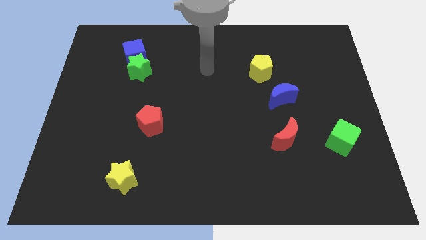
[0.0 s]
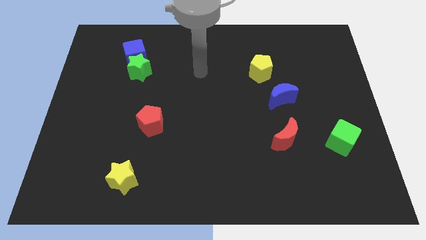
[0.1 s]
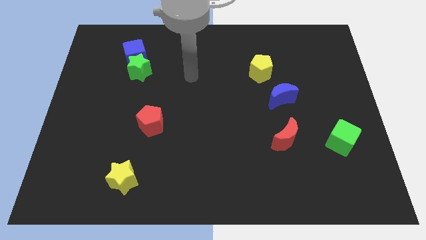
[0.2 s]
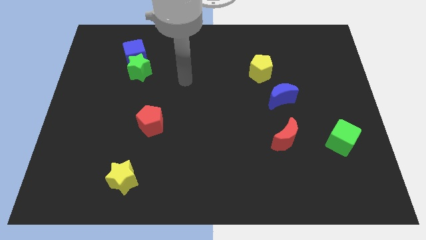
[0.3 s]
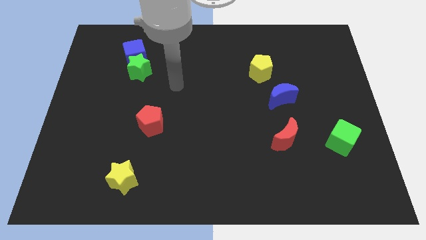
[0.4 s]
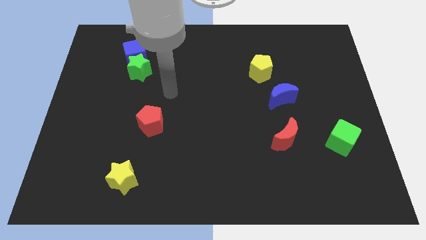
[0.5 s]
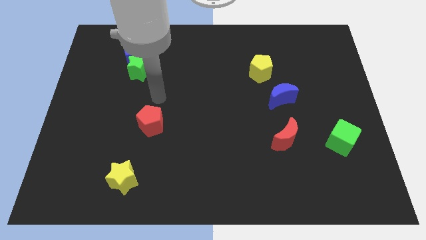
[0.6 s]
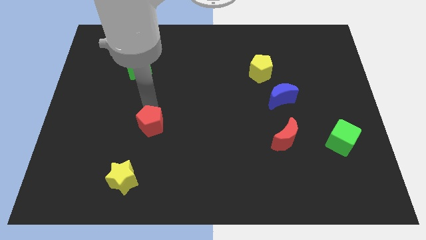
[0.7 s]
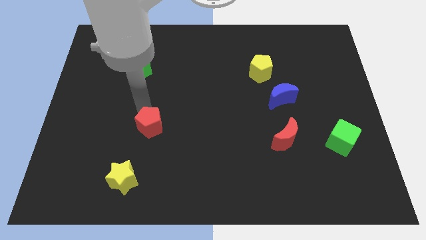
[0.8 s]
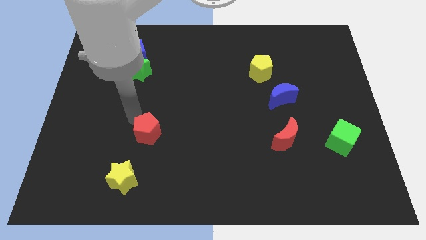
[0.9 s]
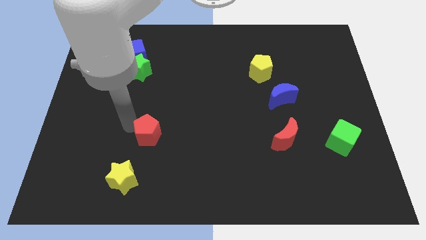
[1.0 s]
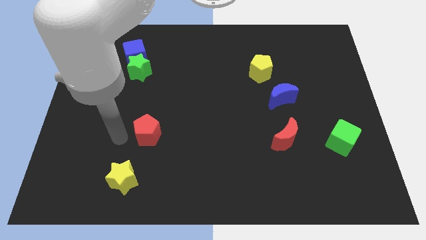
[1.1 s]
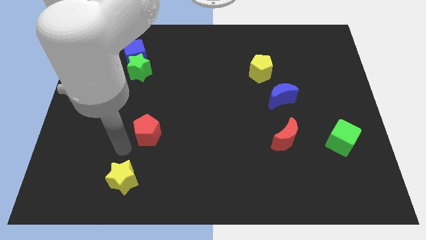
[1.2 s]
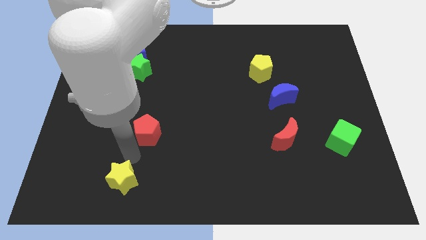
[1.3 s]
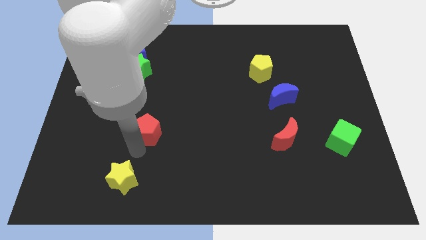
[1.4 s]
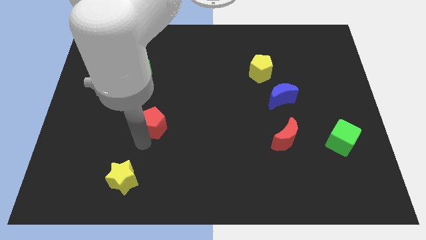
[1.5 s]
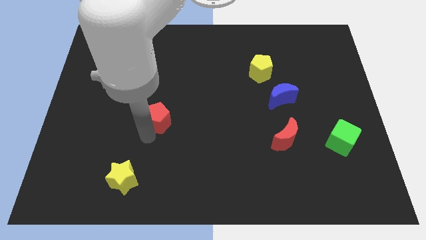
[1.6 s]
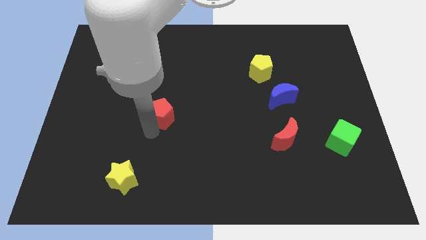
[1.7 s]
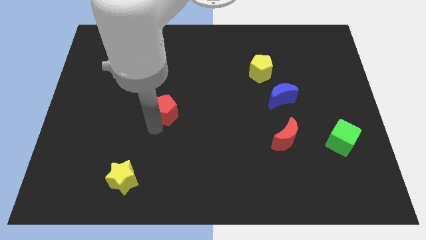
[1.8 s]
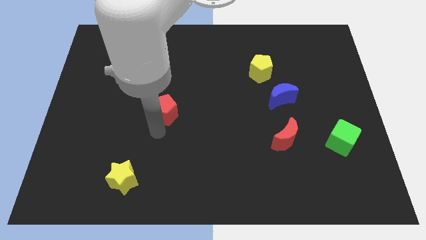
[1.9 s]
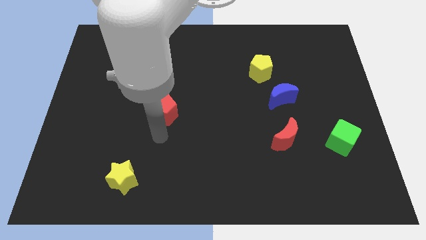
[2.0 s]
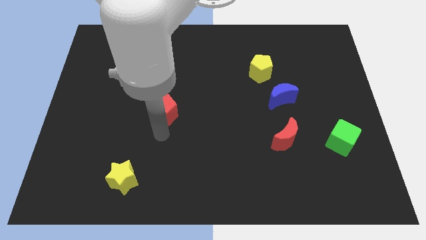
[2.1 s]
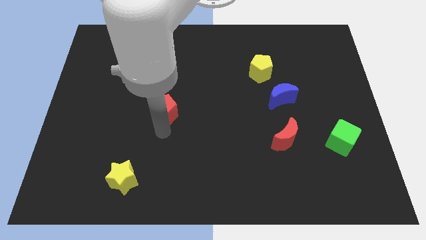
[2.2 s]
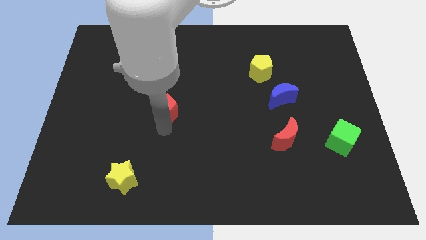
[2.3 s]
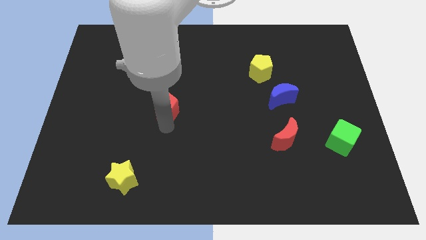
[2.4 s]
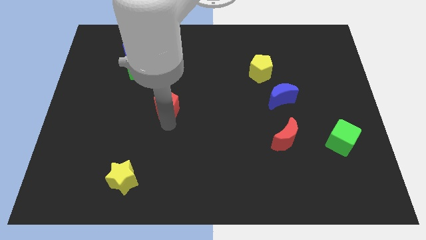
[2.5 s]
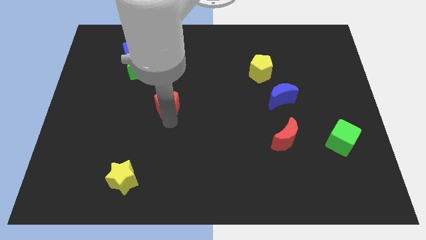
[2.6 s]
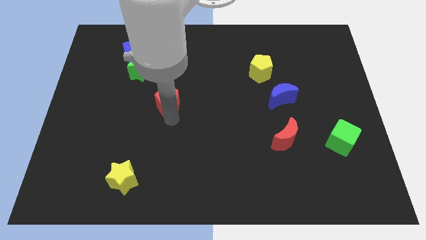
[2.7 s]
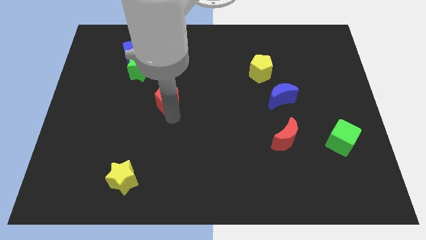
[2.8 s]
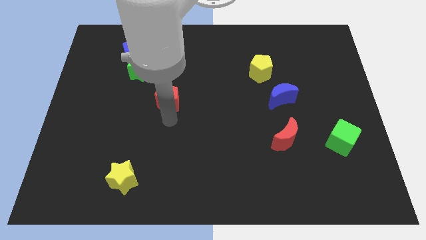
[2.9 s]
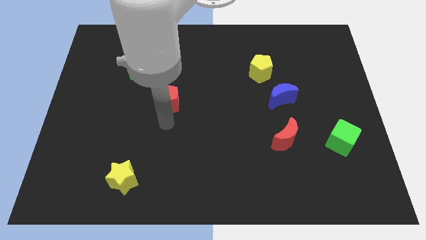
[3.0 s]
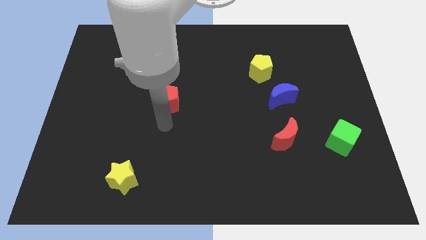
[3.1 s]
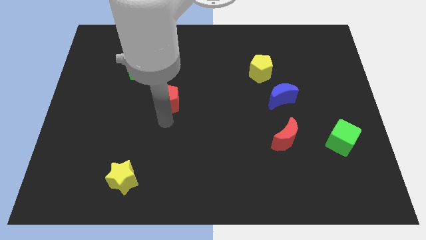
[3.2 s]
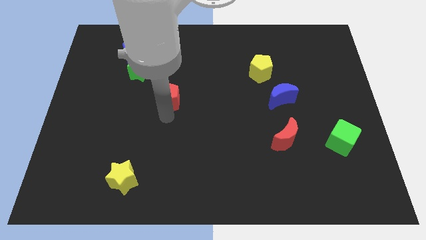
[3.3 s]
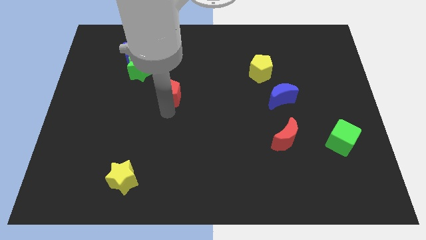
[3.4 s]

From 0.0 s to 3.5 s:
slightly move the red pentagon up

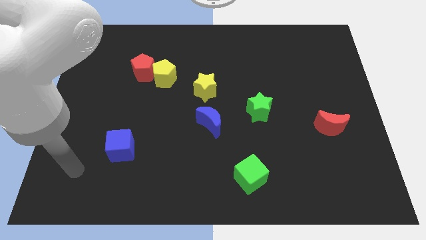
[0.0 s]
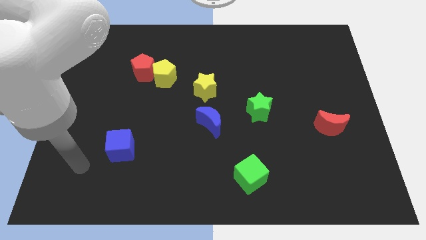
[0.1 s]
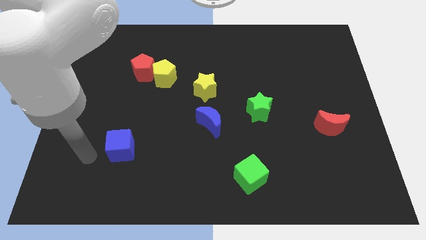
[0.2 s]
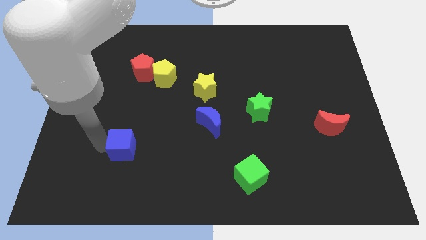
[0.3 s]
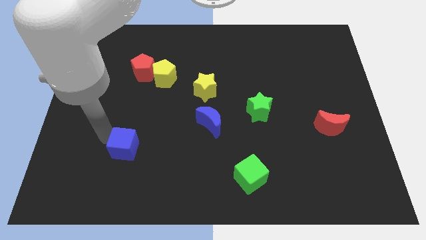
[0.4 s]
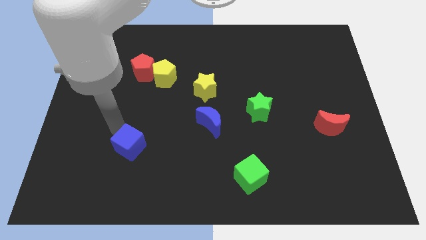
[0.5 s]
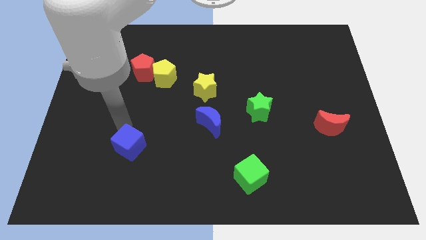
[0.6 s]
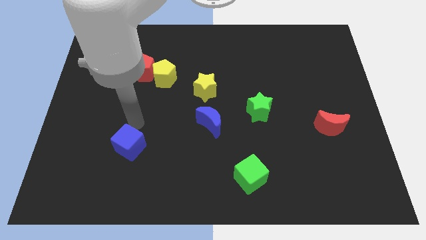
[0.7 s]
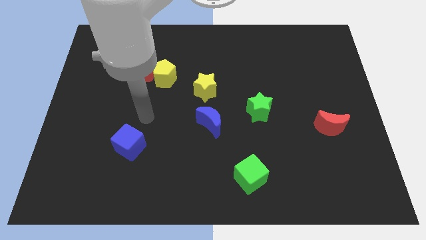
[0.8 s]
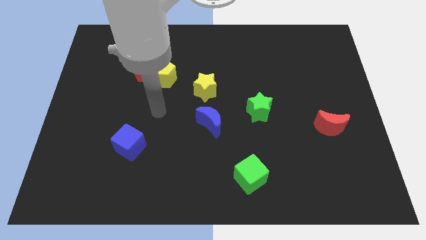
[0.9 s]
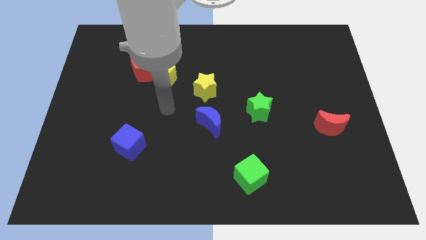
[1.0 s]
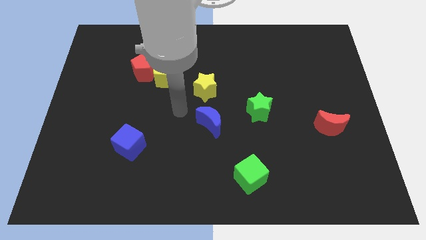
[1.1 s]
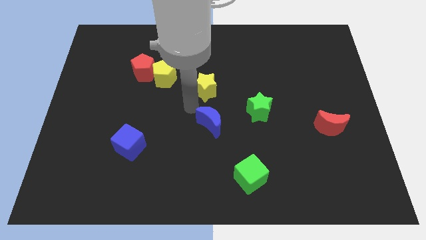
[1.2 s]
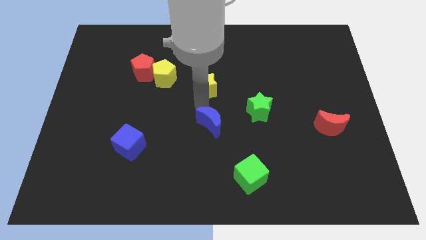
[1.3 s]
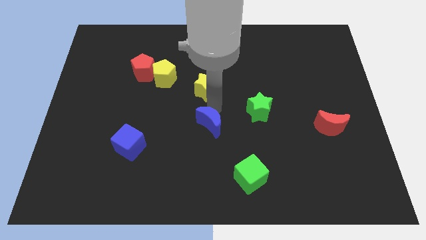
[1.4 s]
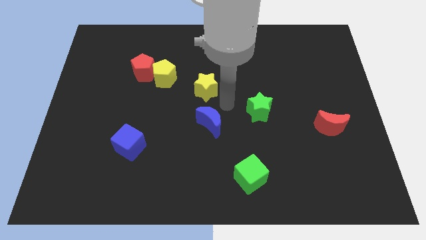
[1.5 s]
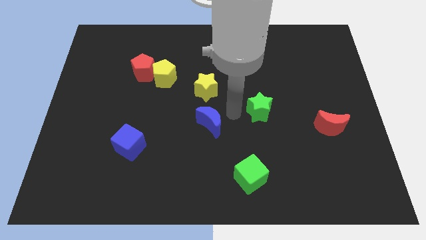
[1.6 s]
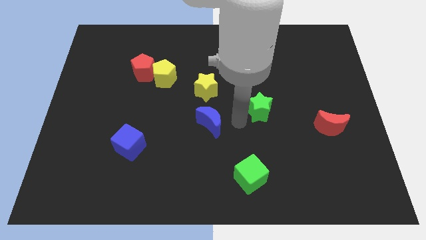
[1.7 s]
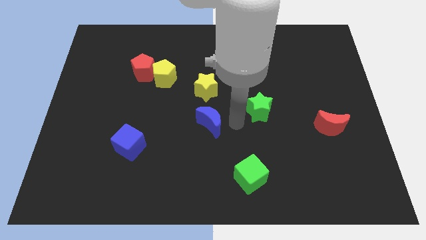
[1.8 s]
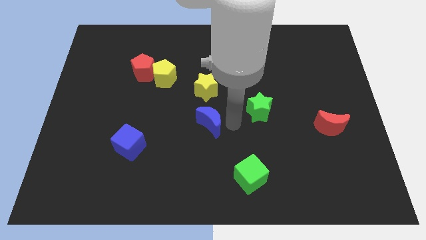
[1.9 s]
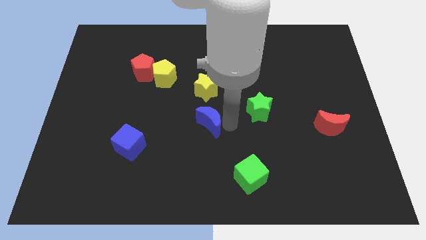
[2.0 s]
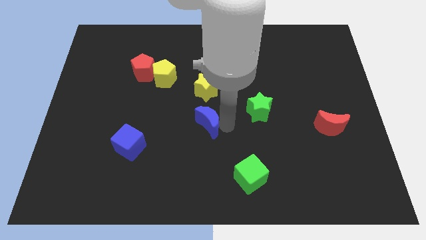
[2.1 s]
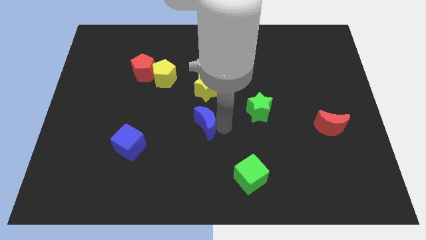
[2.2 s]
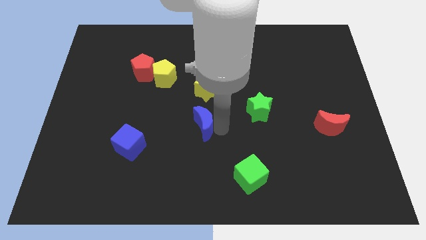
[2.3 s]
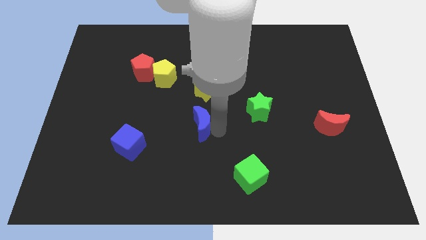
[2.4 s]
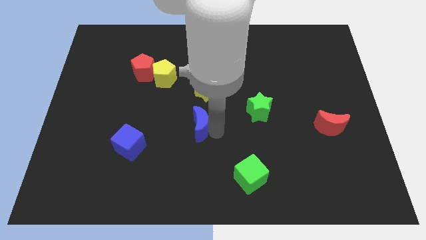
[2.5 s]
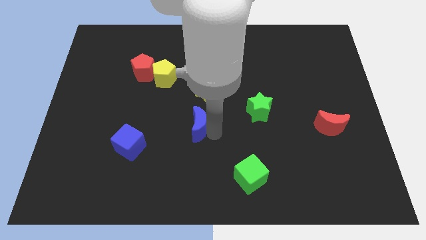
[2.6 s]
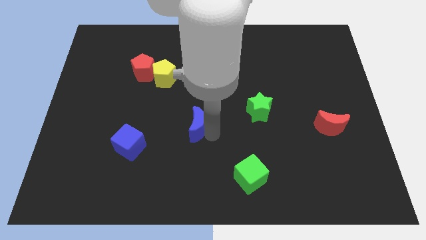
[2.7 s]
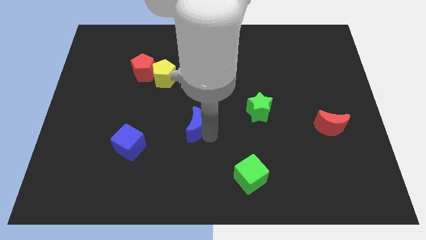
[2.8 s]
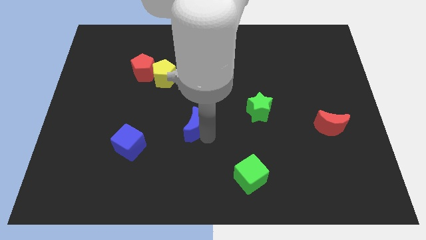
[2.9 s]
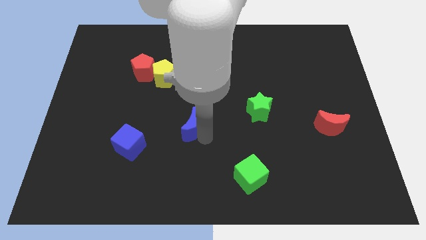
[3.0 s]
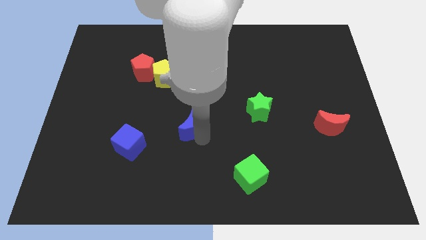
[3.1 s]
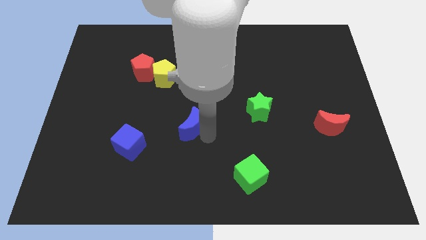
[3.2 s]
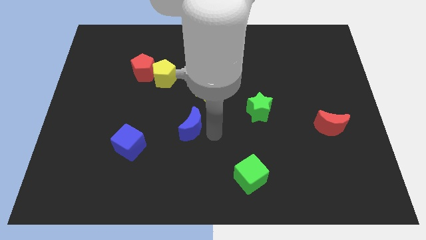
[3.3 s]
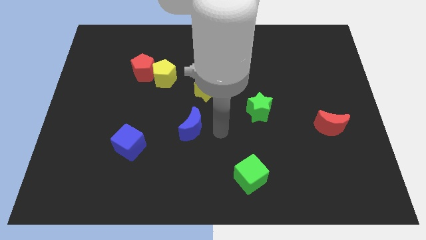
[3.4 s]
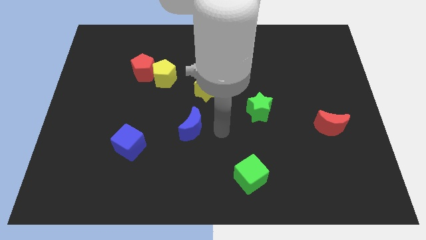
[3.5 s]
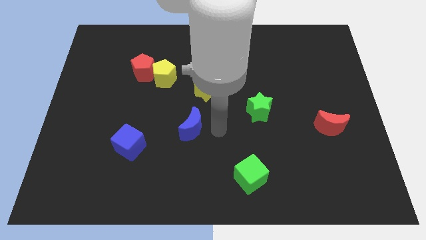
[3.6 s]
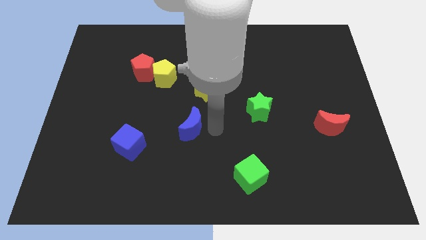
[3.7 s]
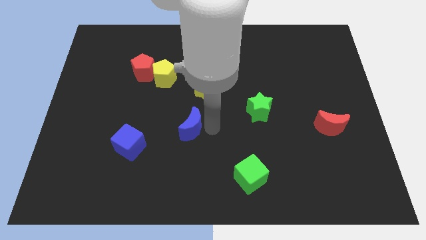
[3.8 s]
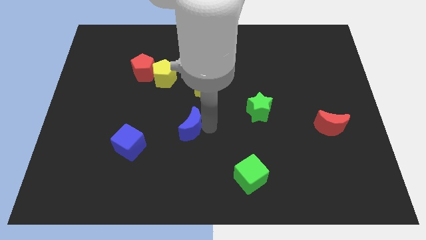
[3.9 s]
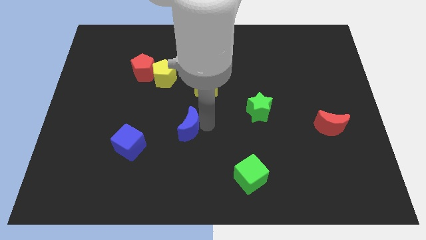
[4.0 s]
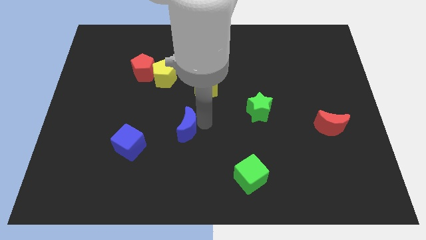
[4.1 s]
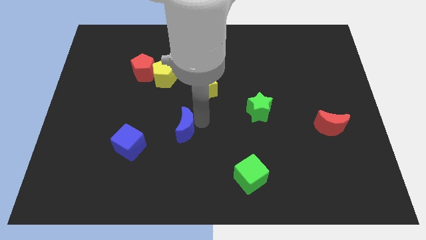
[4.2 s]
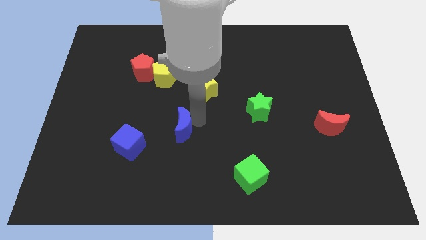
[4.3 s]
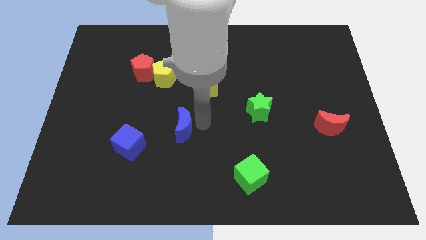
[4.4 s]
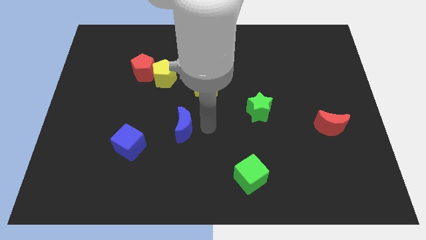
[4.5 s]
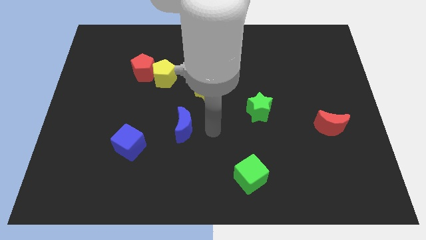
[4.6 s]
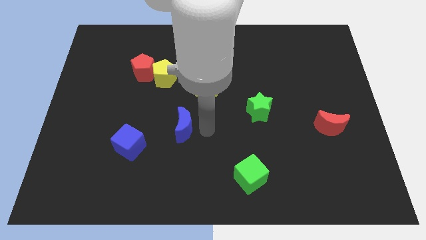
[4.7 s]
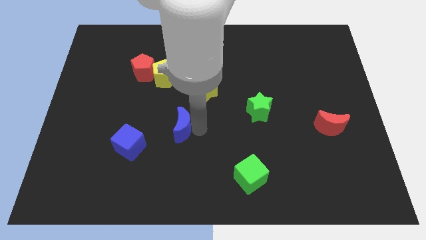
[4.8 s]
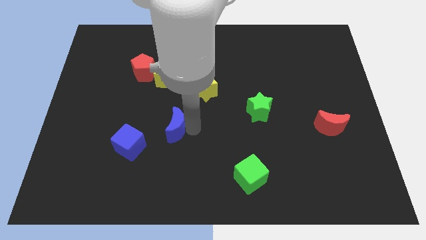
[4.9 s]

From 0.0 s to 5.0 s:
move the blue moon a bit left
